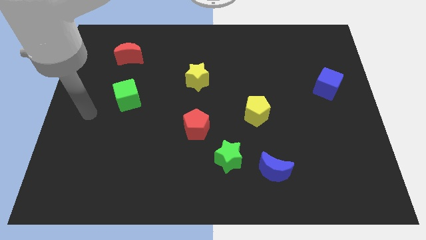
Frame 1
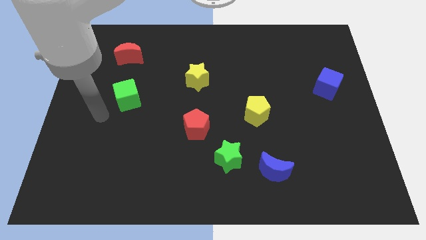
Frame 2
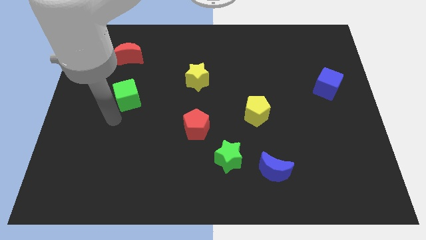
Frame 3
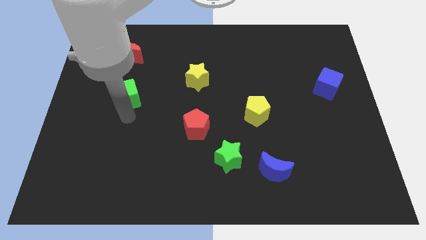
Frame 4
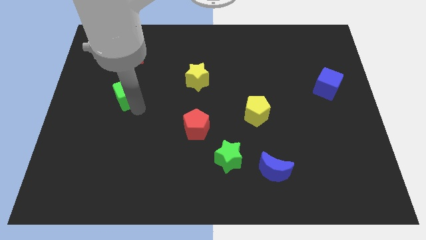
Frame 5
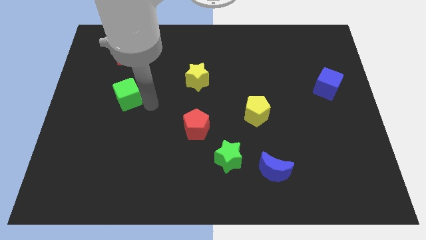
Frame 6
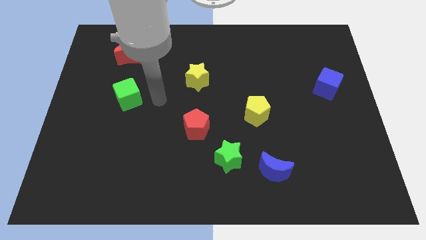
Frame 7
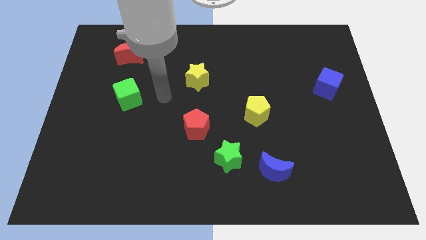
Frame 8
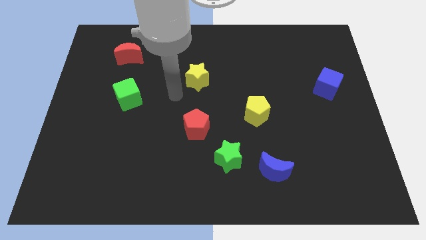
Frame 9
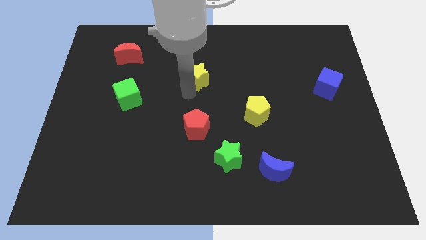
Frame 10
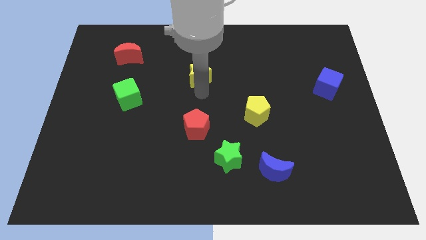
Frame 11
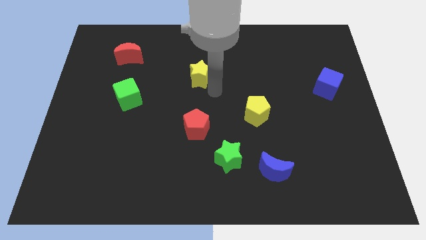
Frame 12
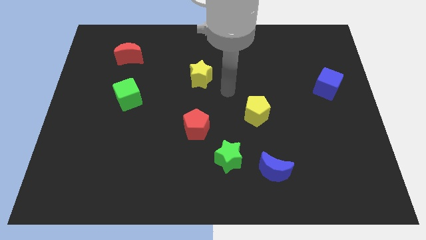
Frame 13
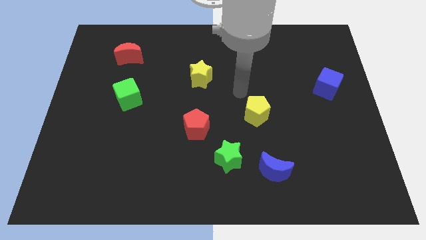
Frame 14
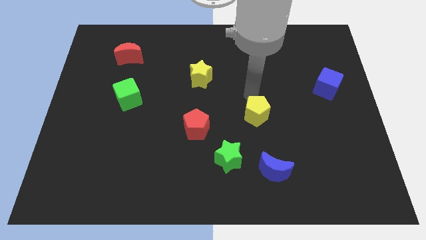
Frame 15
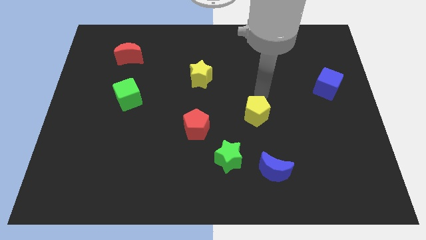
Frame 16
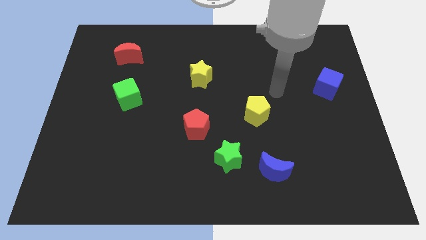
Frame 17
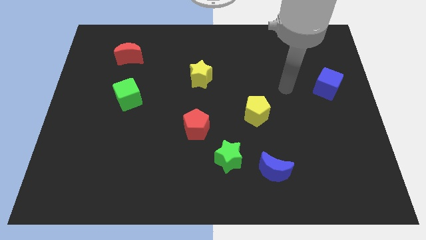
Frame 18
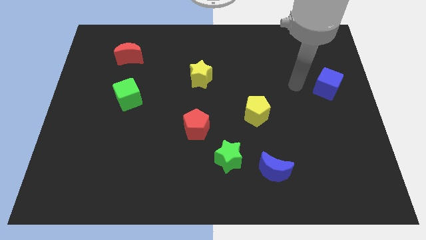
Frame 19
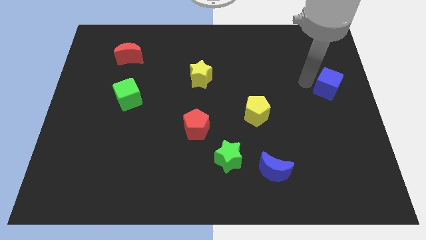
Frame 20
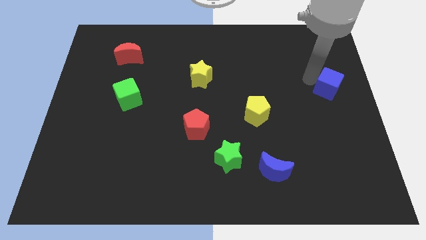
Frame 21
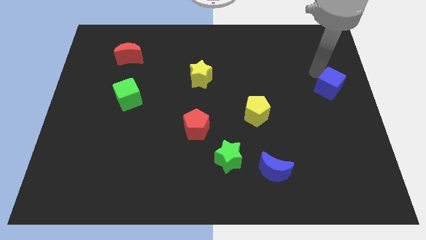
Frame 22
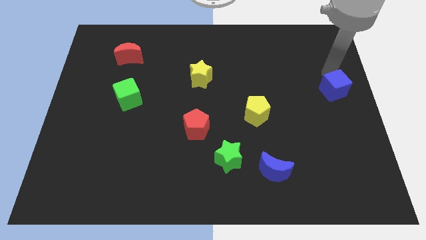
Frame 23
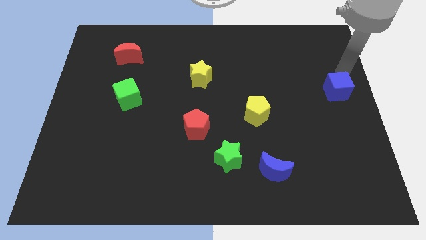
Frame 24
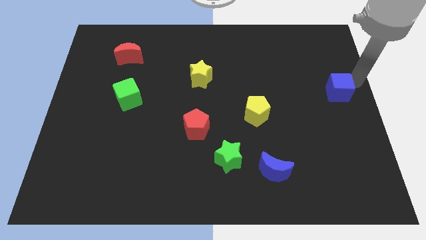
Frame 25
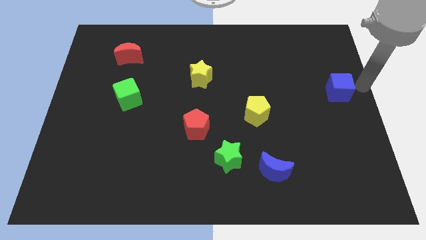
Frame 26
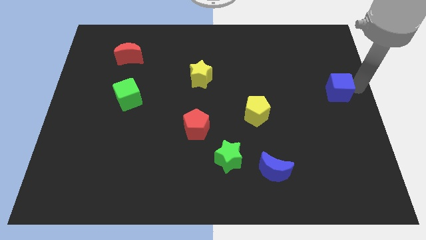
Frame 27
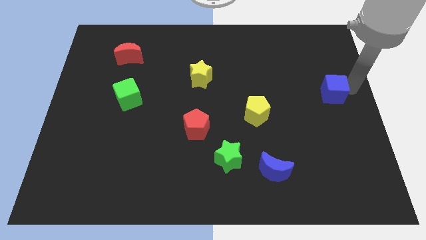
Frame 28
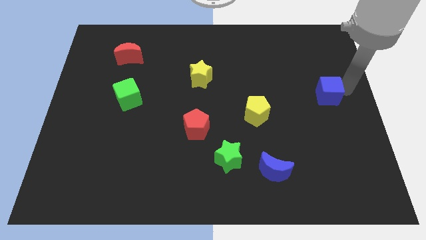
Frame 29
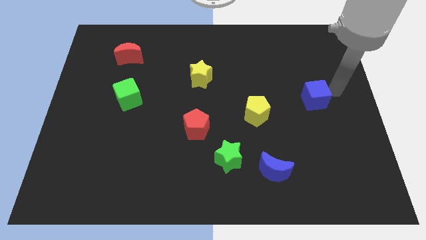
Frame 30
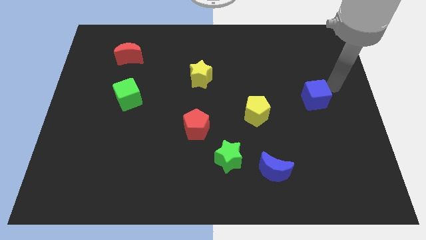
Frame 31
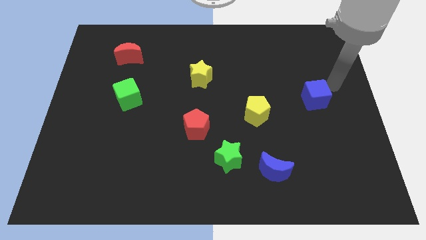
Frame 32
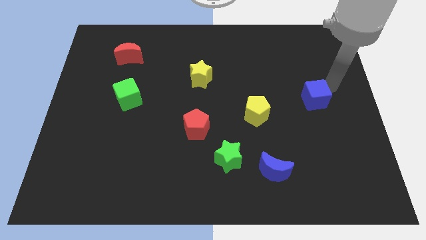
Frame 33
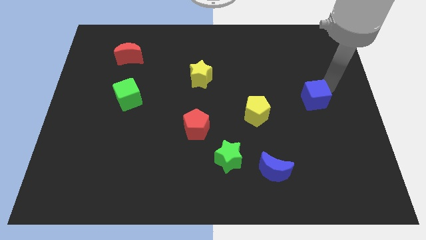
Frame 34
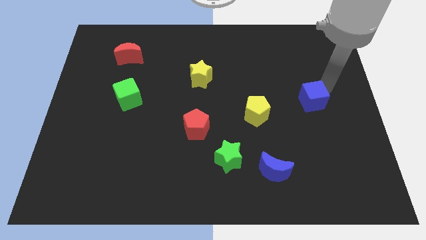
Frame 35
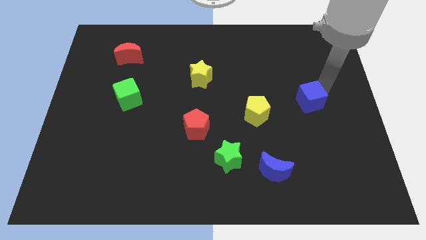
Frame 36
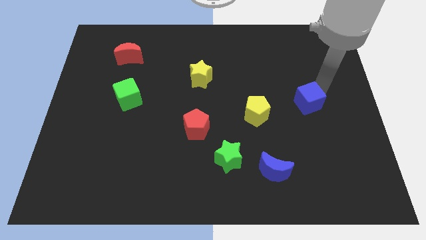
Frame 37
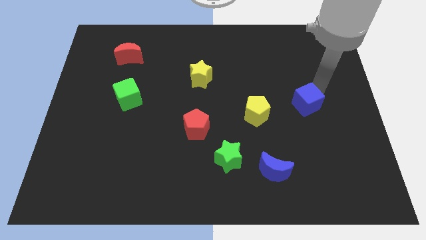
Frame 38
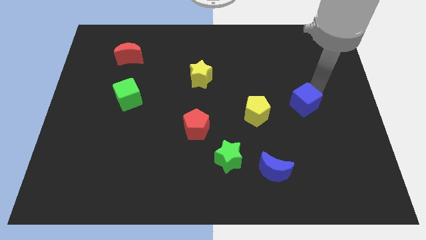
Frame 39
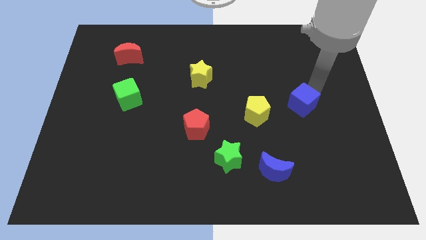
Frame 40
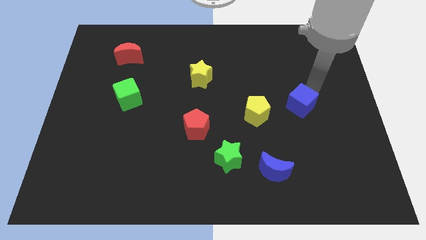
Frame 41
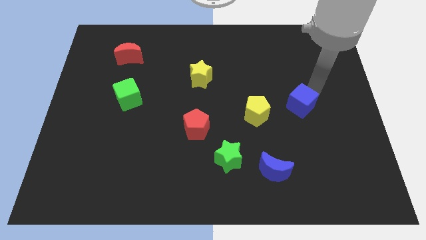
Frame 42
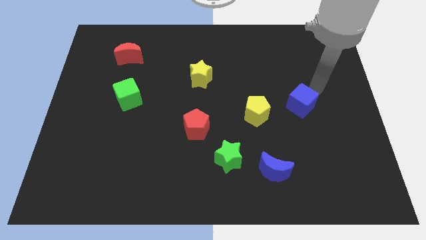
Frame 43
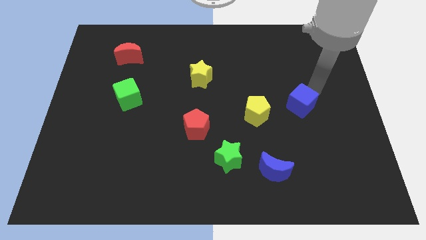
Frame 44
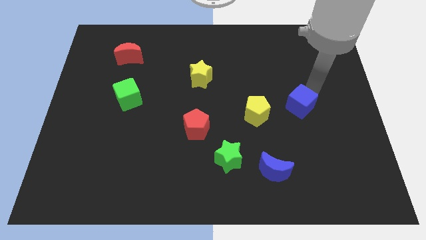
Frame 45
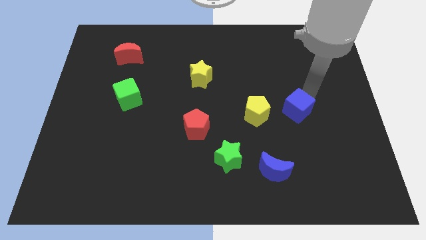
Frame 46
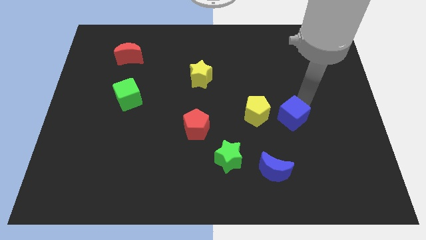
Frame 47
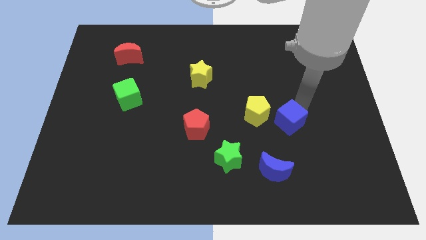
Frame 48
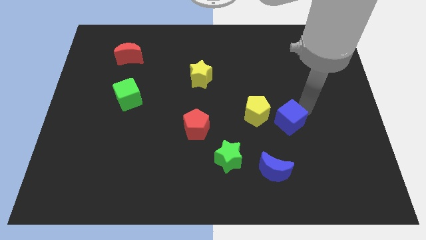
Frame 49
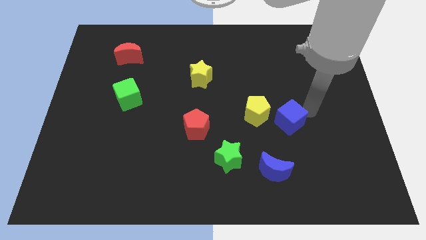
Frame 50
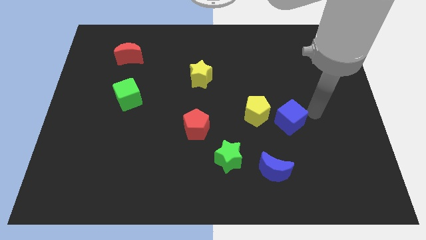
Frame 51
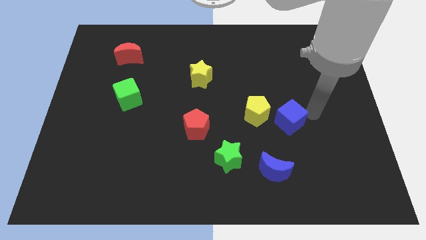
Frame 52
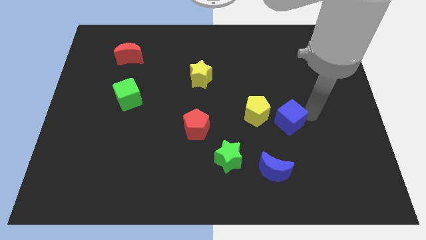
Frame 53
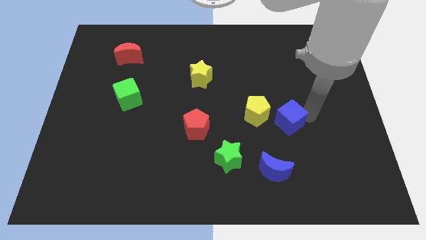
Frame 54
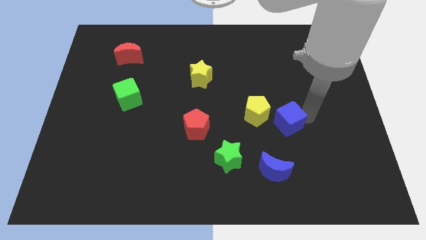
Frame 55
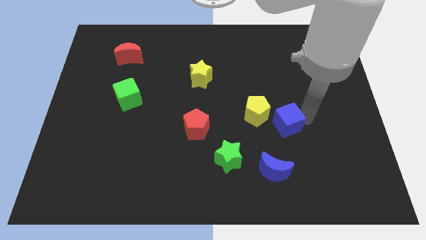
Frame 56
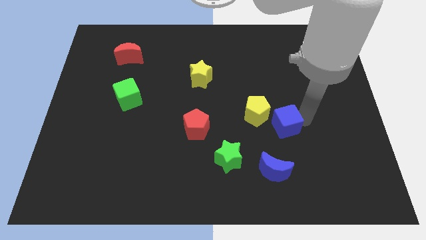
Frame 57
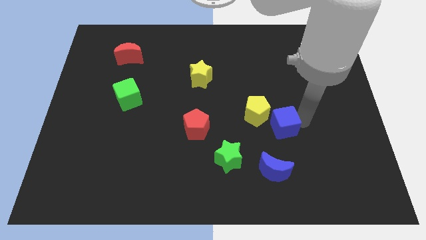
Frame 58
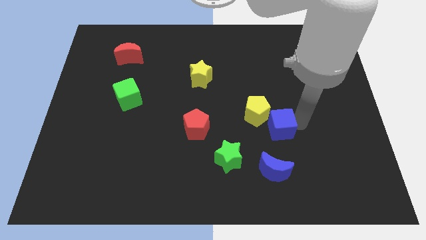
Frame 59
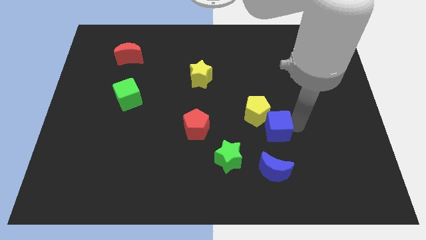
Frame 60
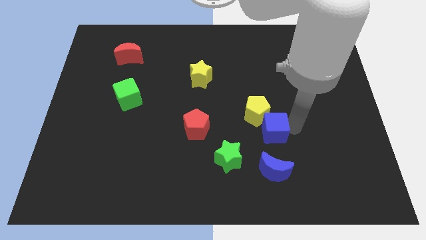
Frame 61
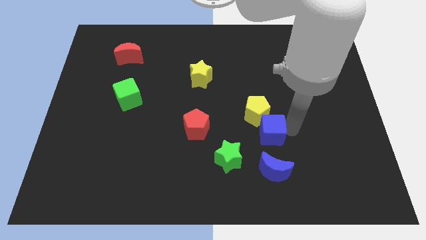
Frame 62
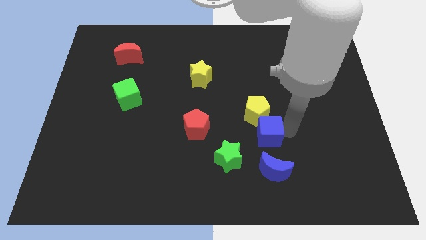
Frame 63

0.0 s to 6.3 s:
push the blue cube to the right of the red pentagon

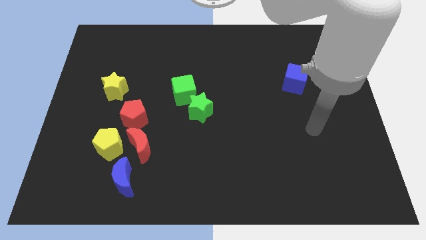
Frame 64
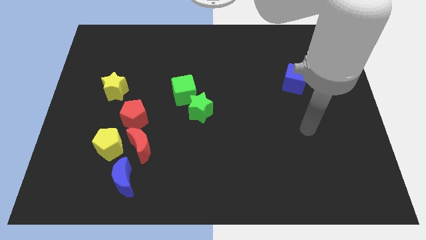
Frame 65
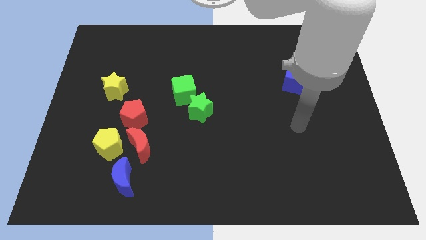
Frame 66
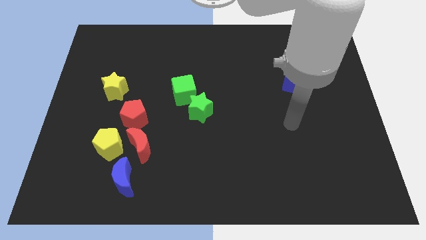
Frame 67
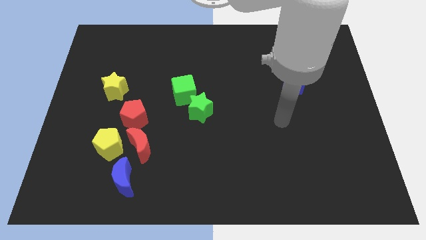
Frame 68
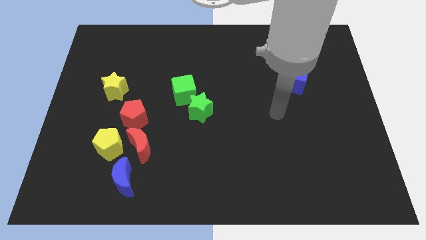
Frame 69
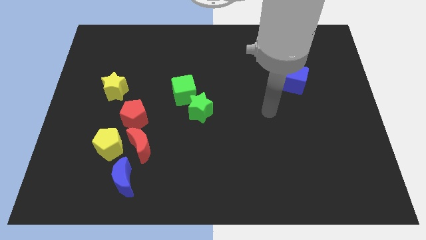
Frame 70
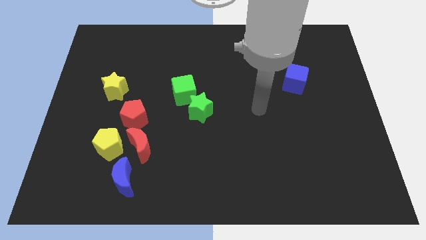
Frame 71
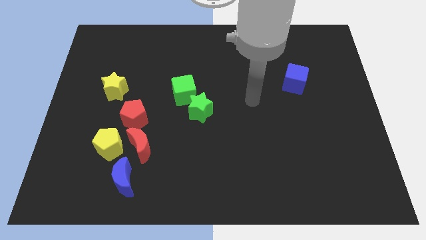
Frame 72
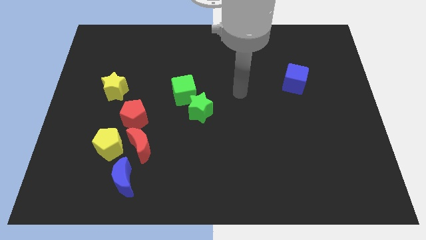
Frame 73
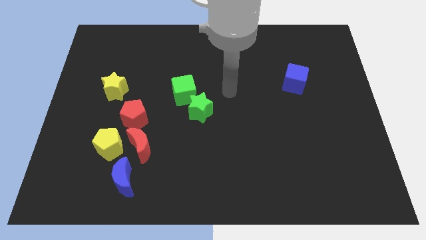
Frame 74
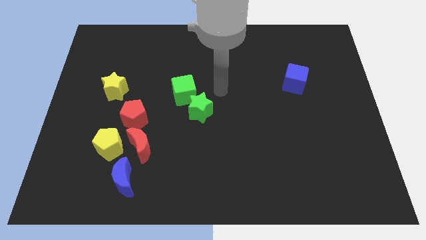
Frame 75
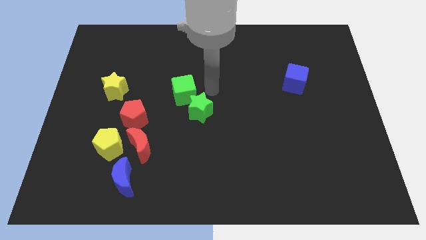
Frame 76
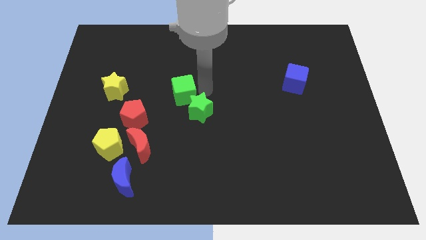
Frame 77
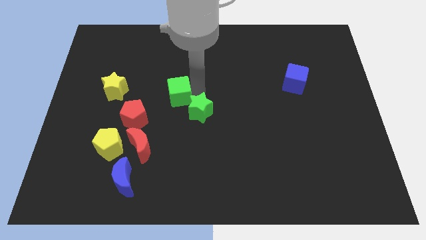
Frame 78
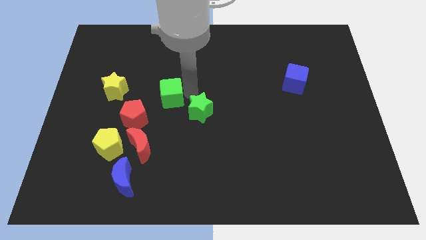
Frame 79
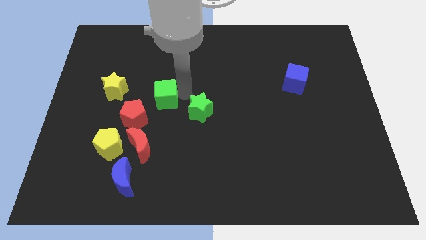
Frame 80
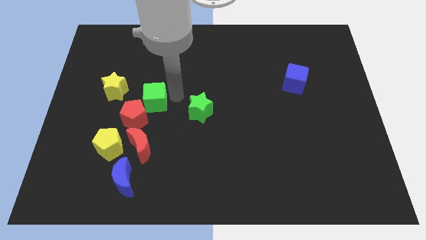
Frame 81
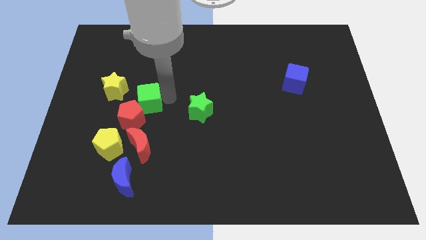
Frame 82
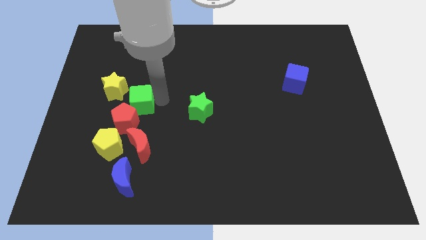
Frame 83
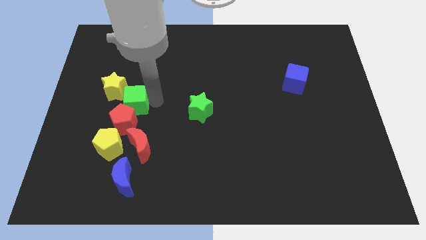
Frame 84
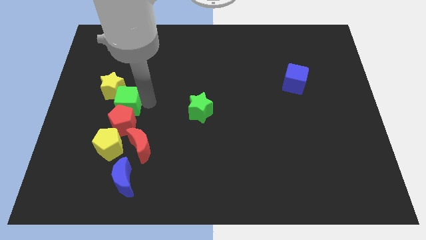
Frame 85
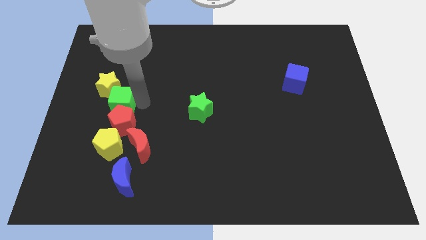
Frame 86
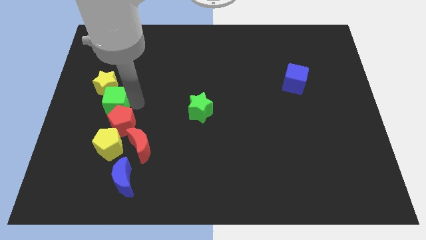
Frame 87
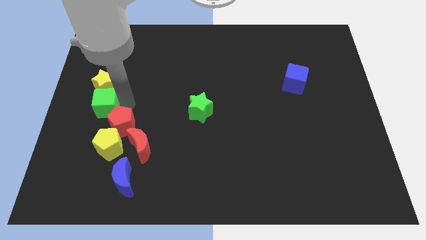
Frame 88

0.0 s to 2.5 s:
put the green cube to the bottom left side of the yellow star
